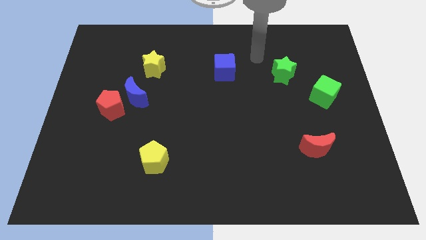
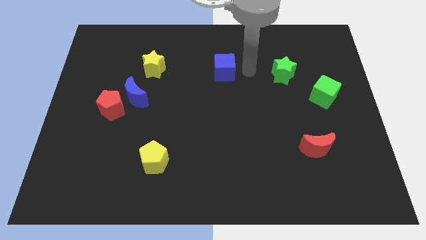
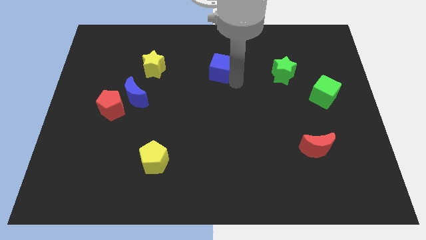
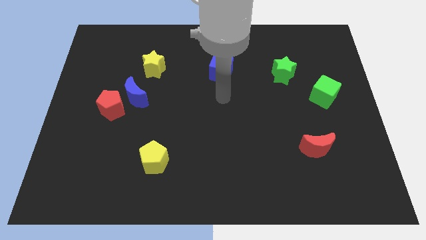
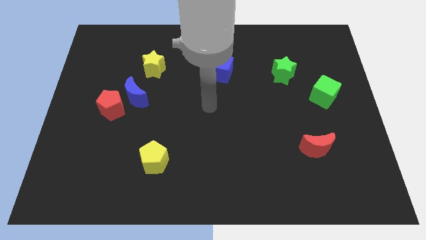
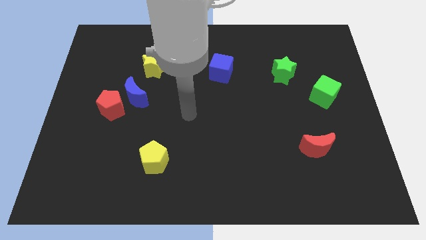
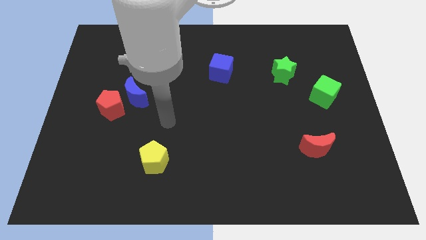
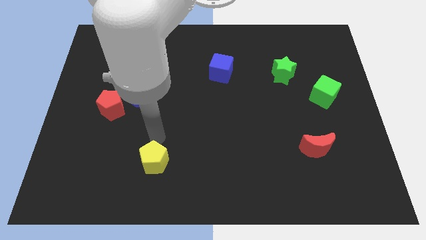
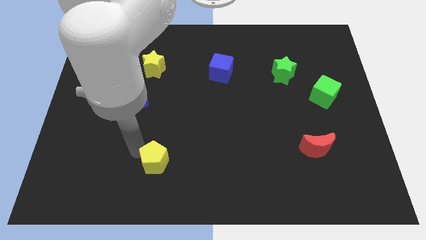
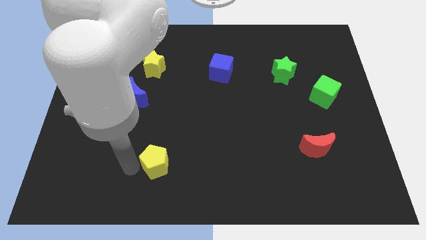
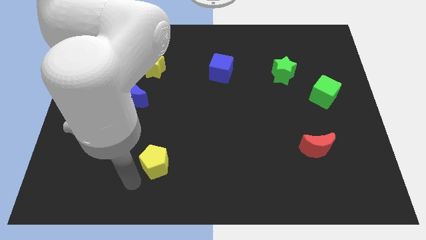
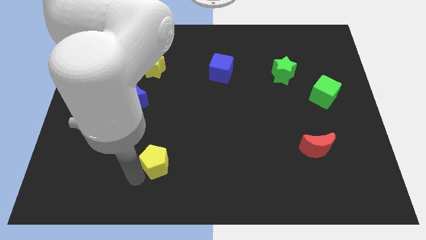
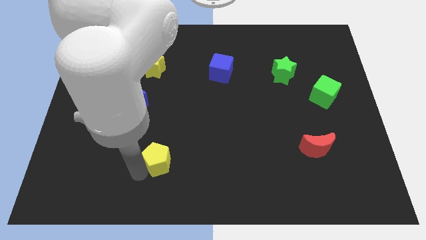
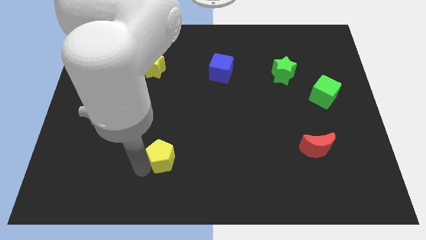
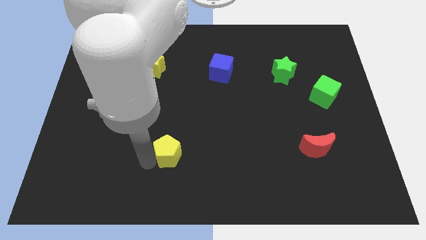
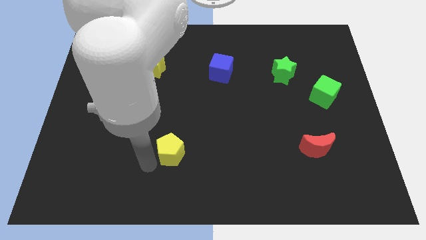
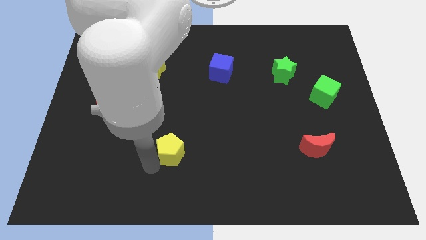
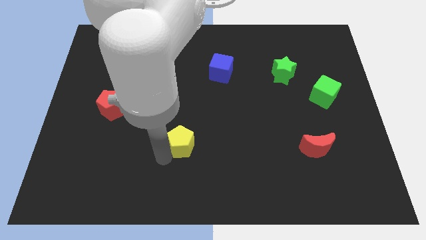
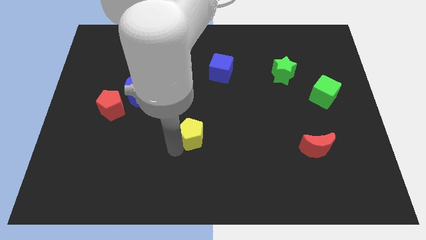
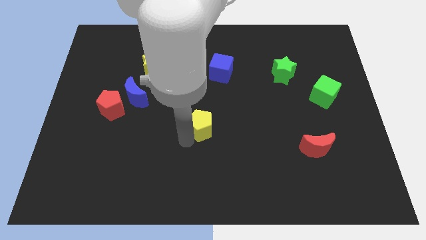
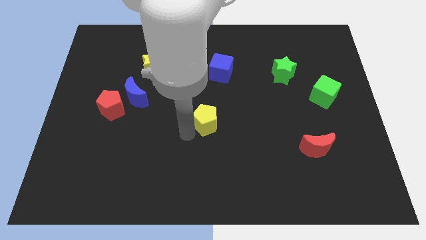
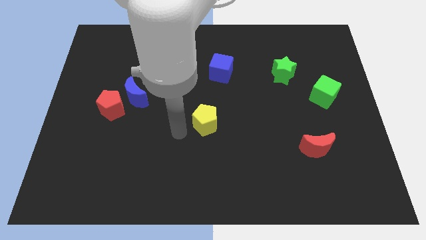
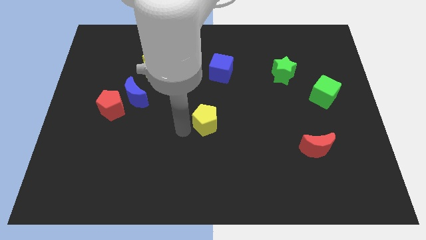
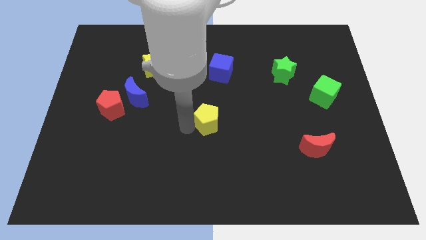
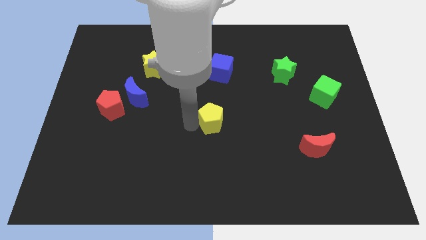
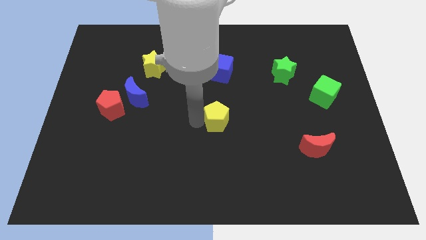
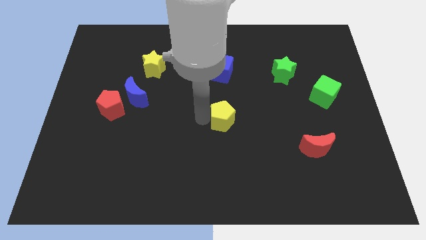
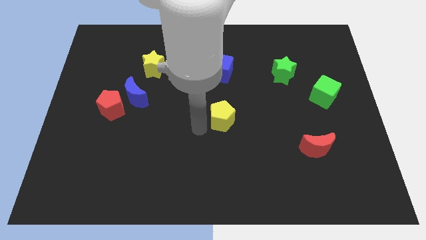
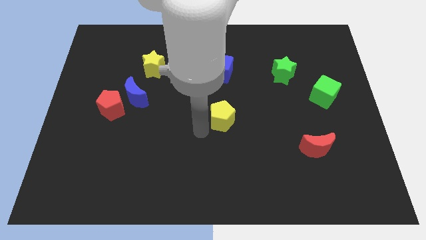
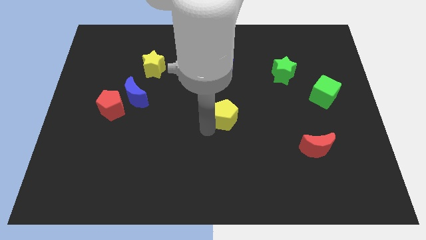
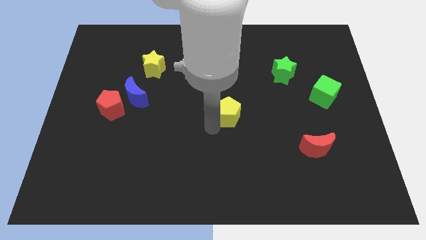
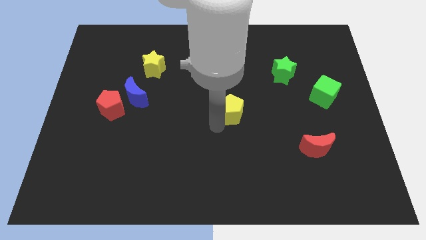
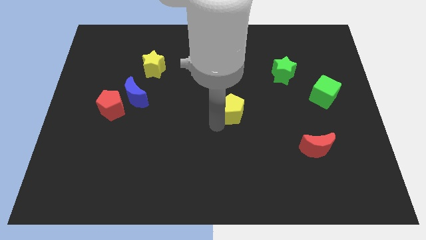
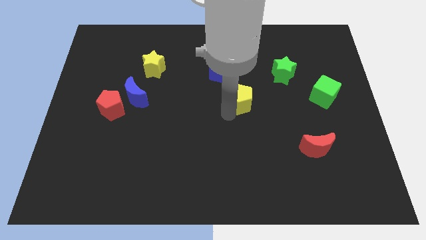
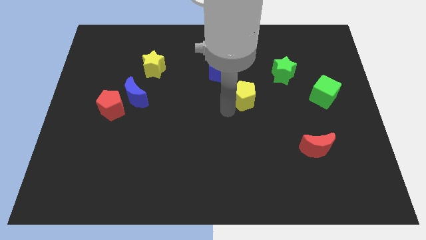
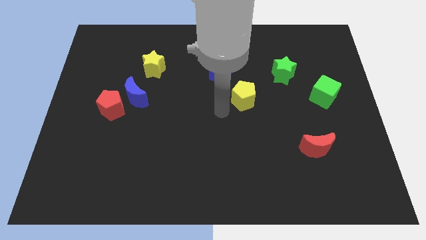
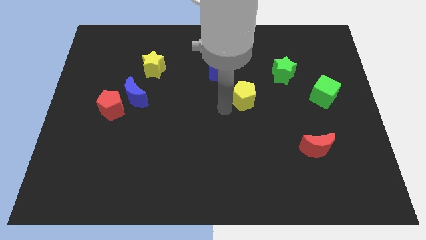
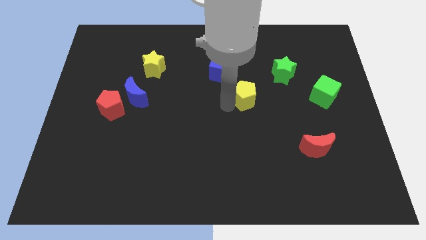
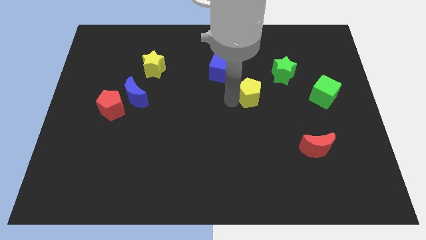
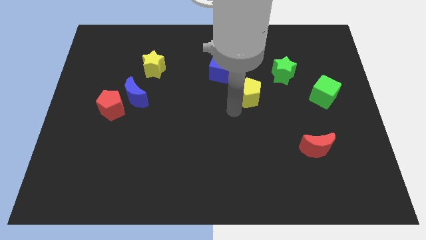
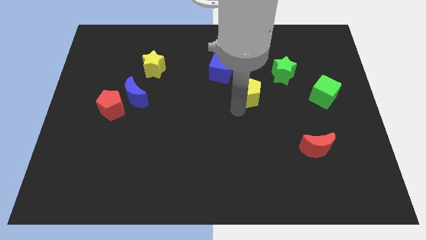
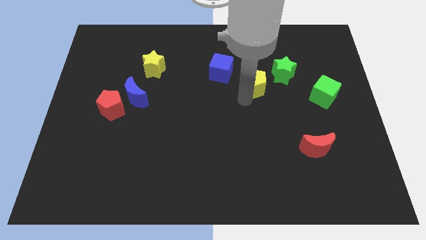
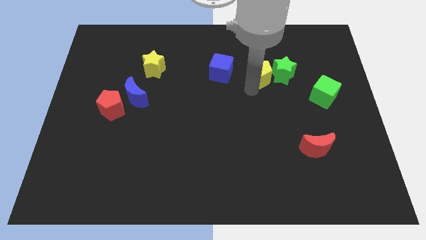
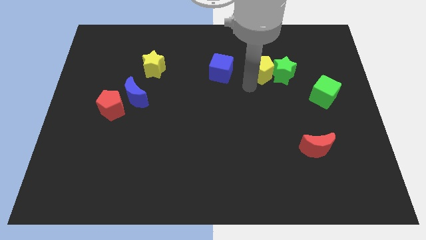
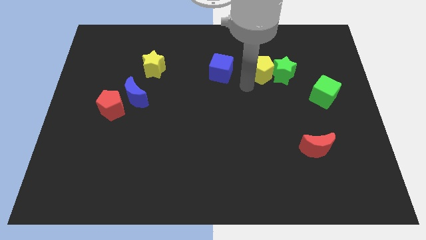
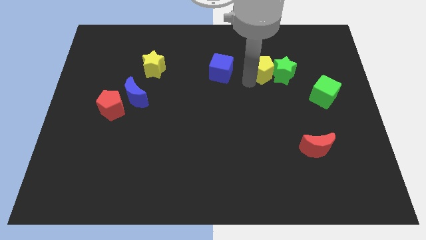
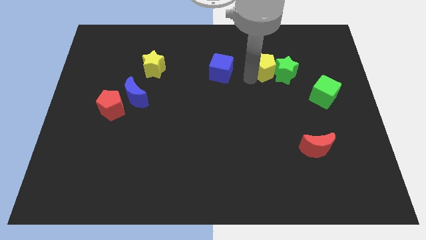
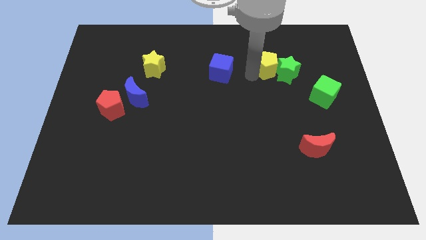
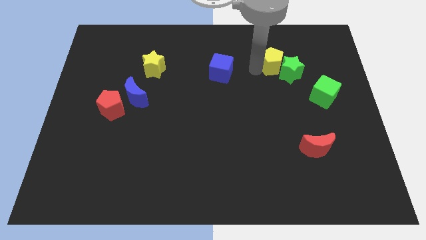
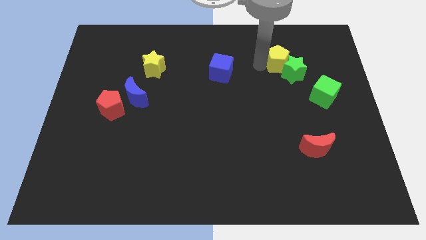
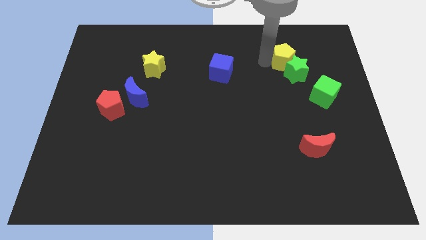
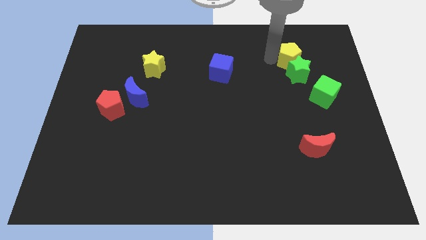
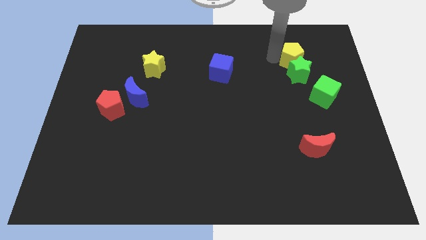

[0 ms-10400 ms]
put the yellow pentagon to the top right side of the green star
